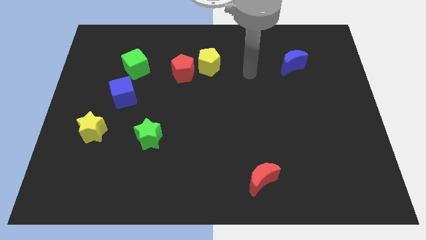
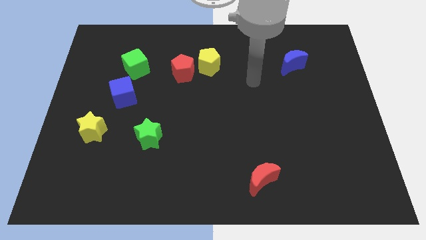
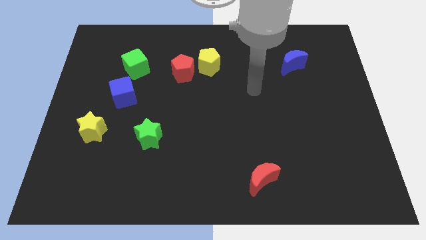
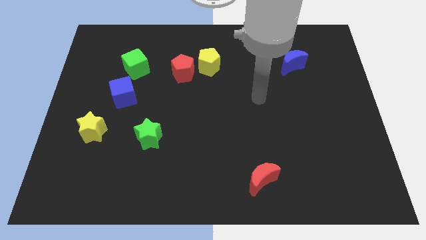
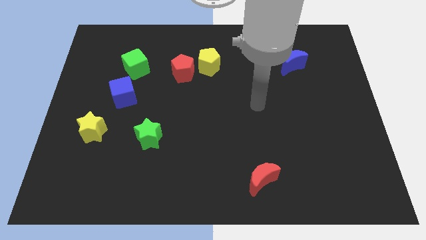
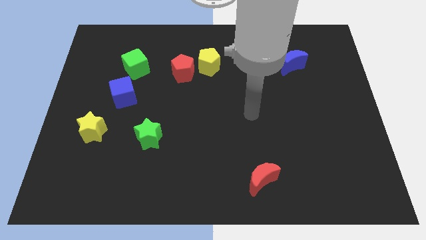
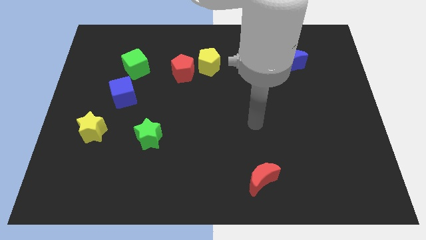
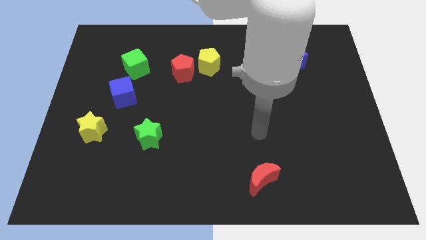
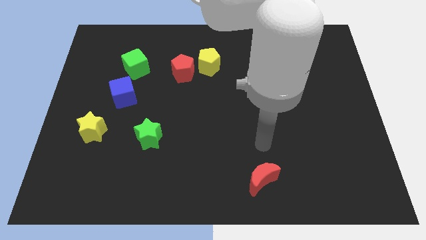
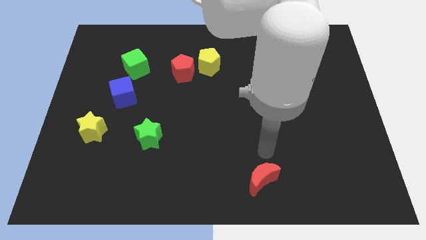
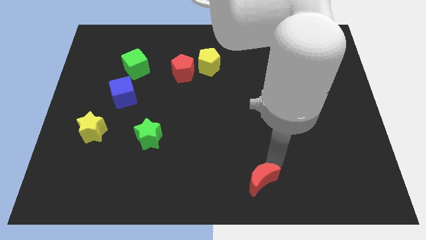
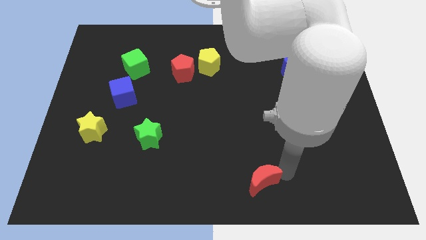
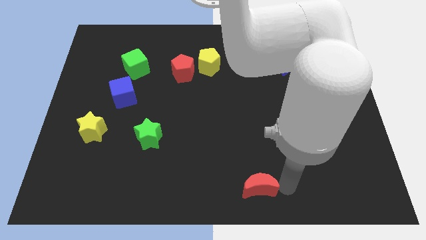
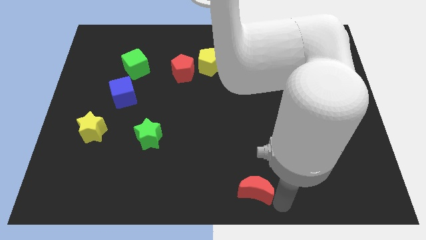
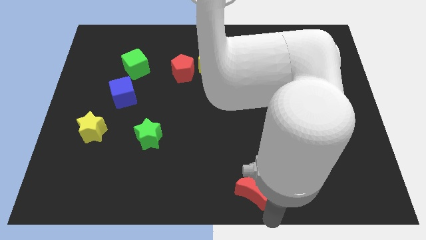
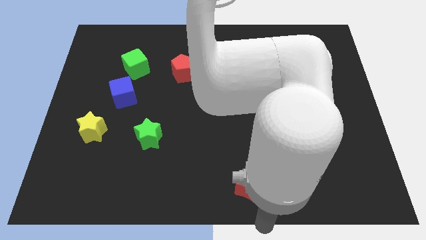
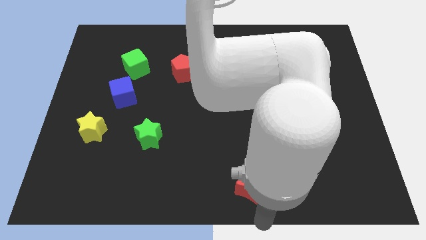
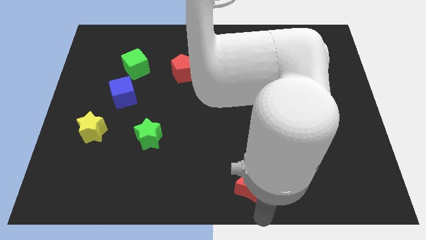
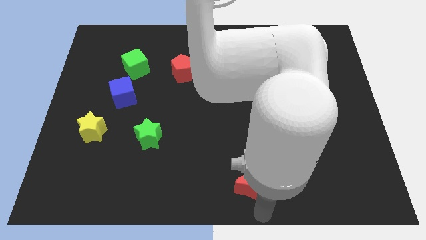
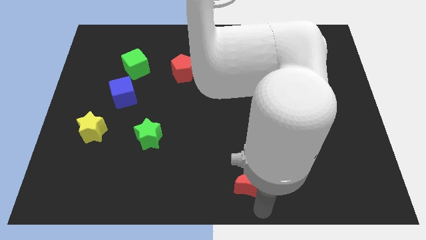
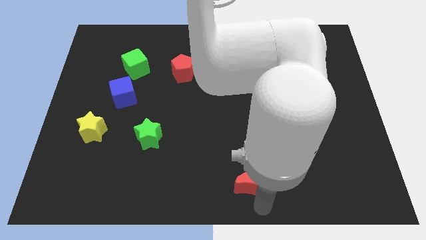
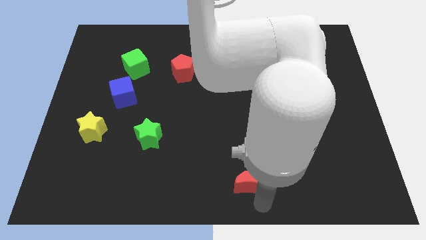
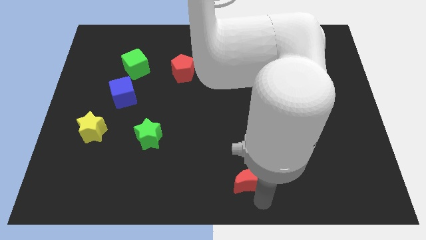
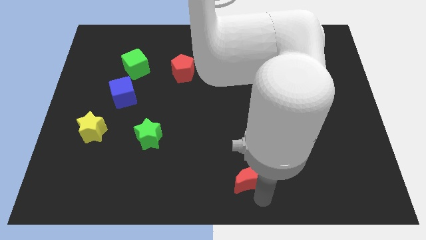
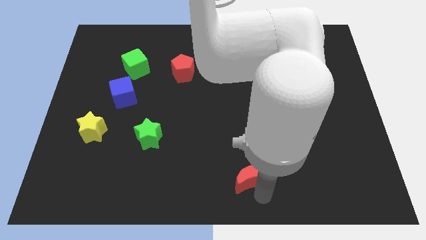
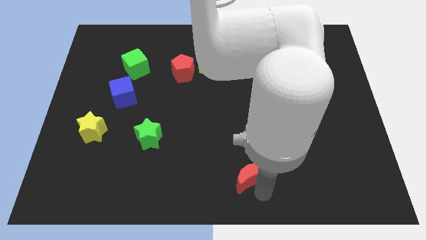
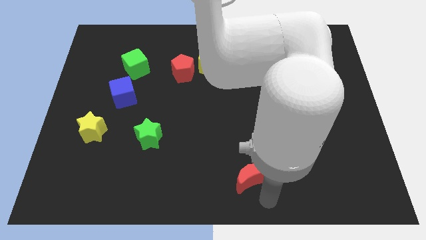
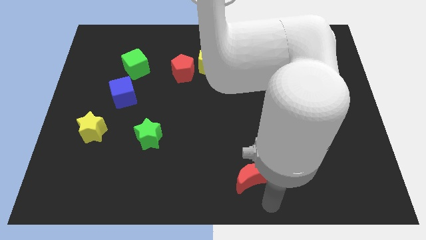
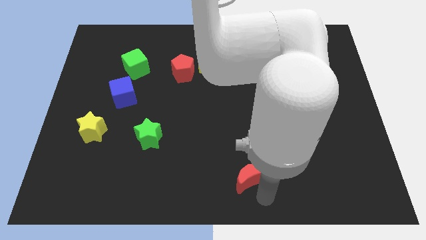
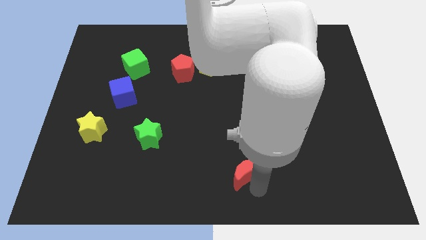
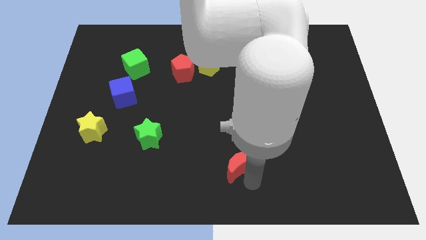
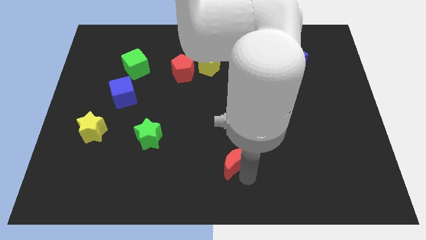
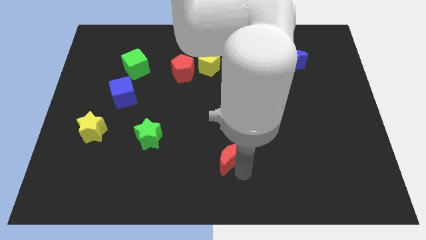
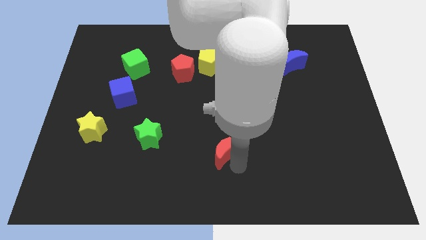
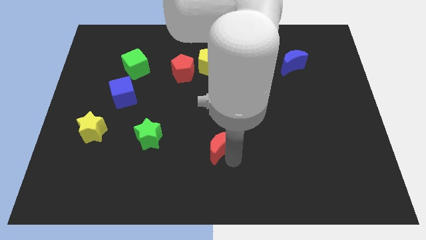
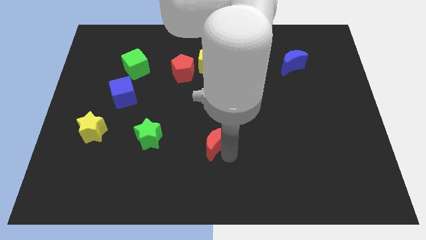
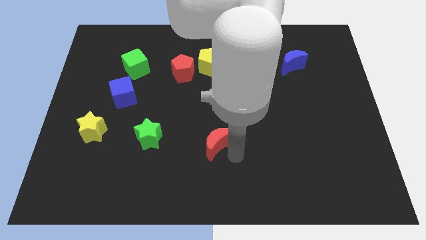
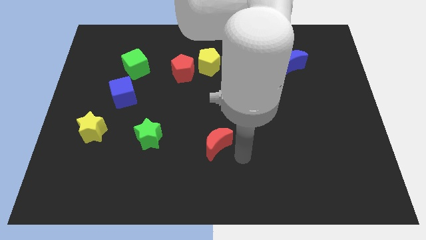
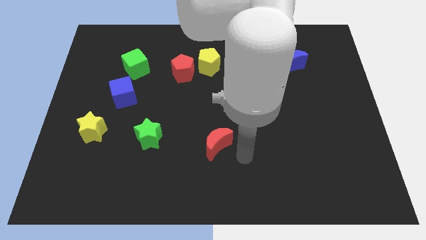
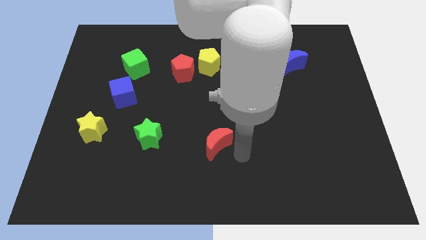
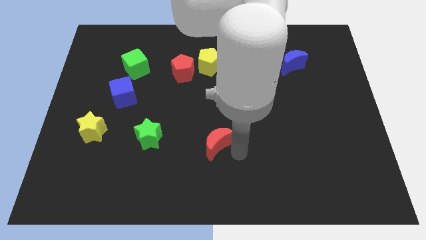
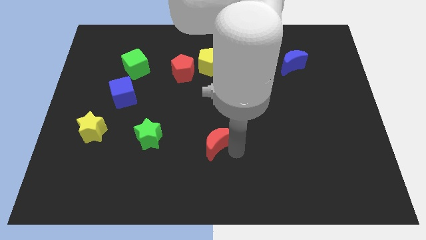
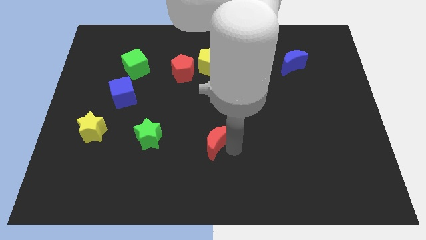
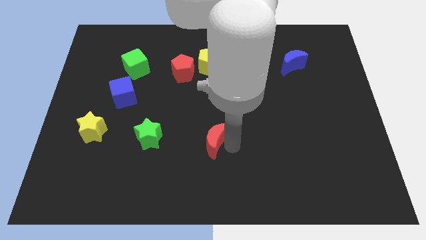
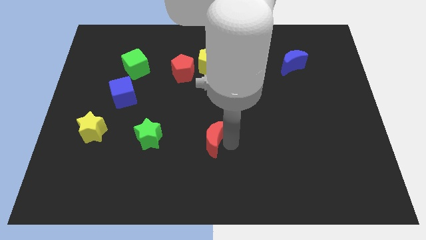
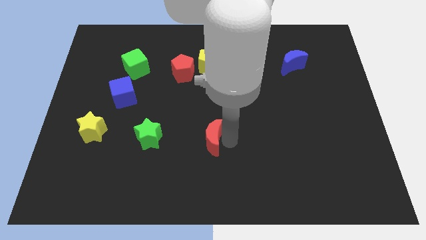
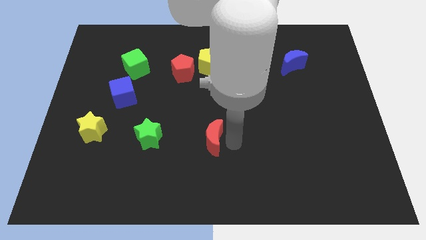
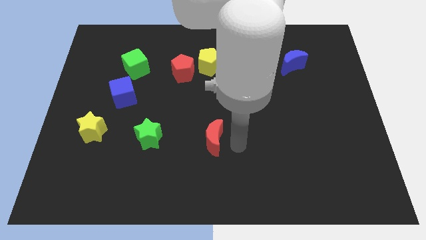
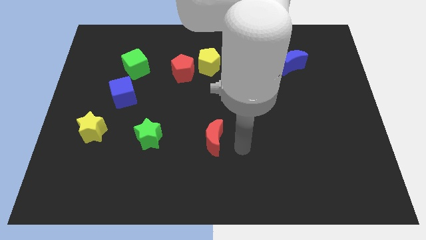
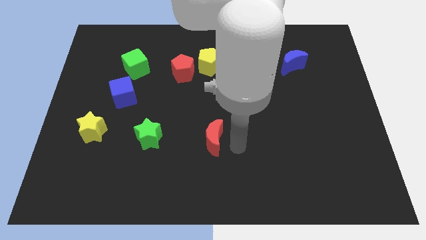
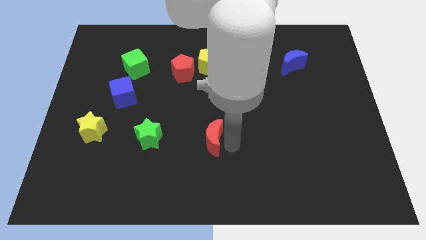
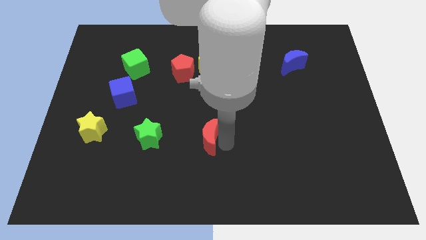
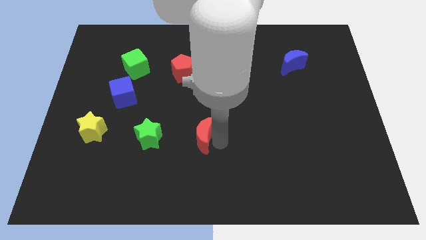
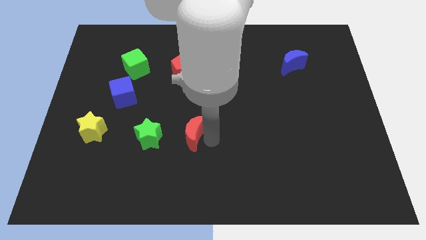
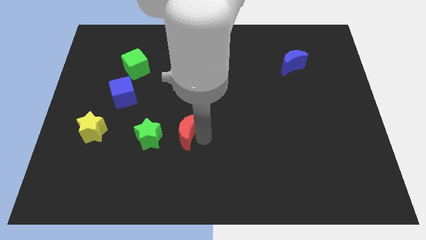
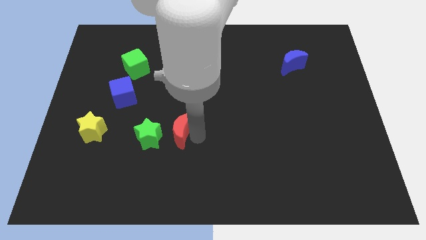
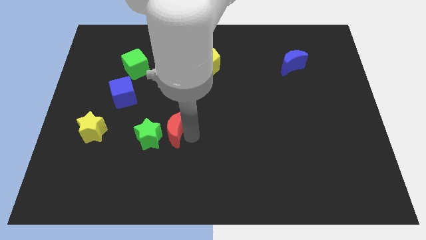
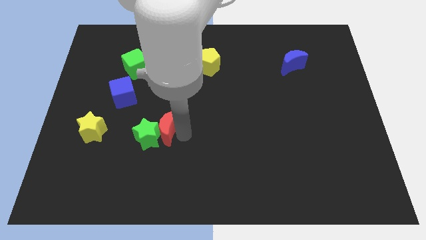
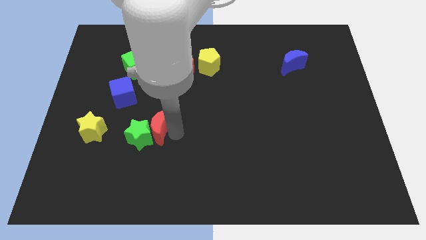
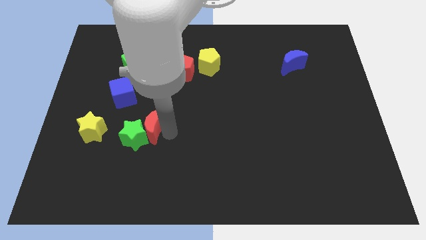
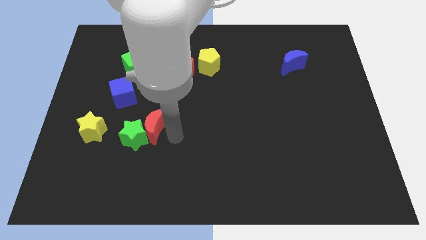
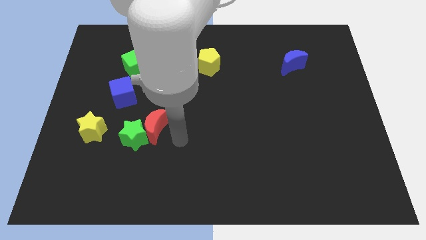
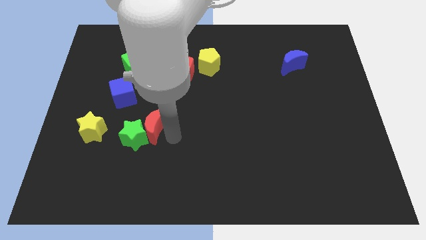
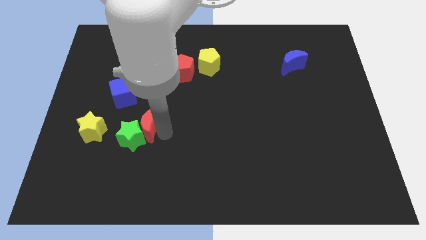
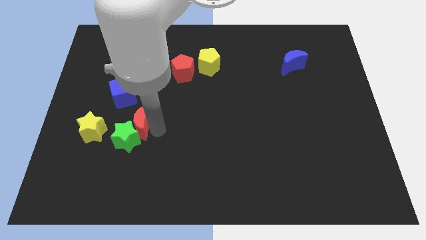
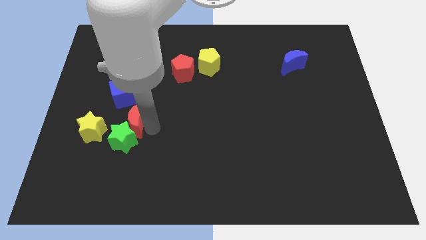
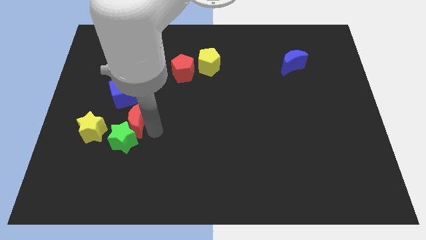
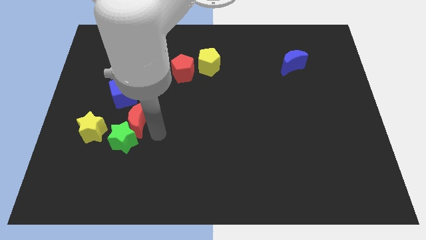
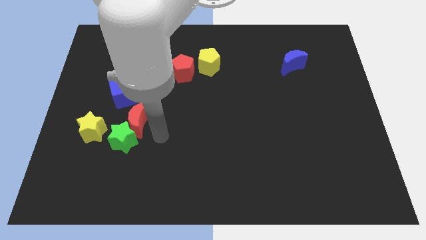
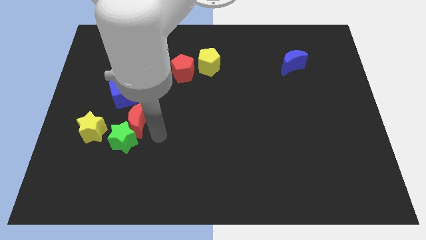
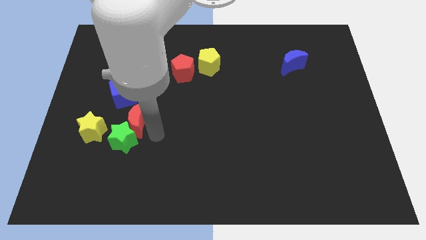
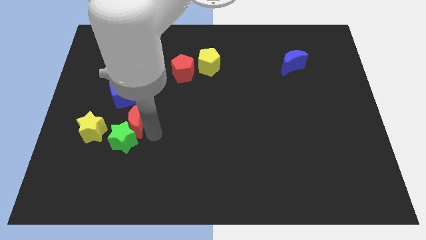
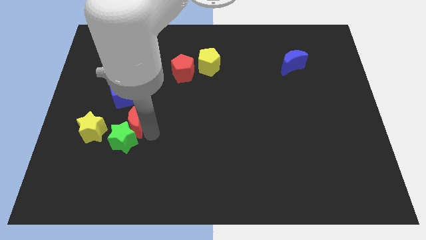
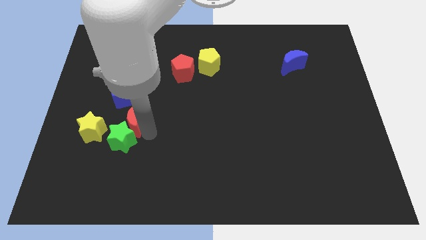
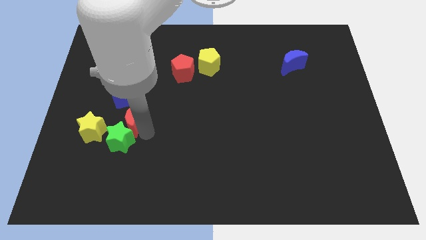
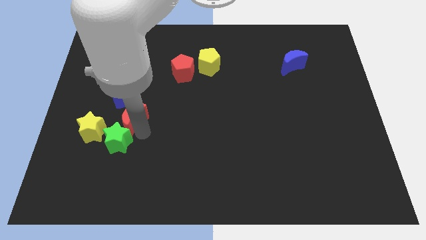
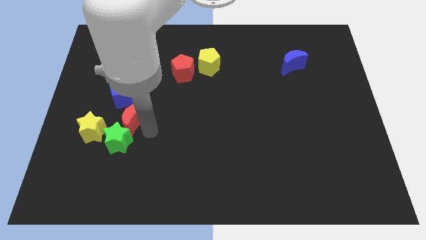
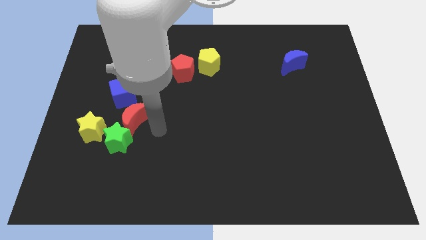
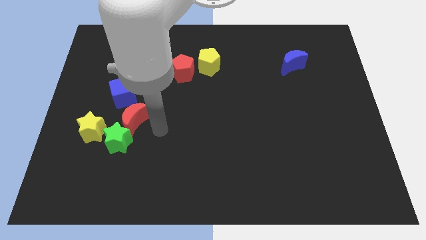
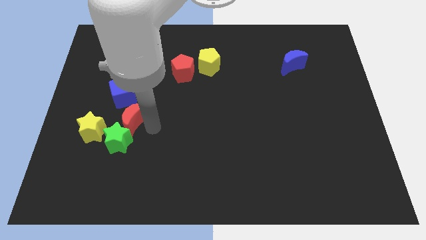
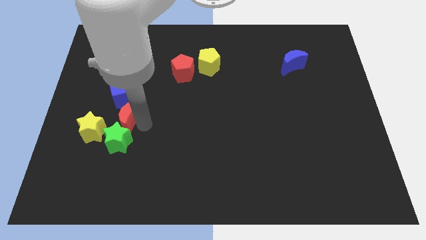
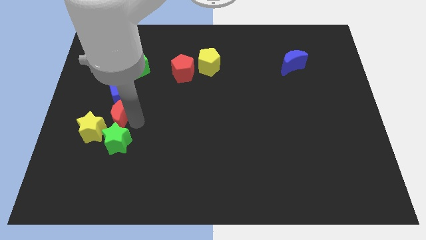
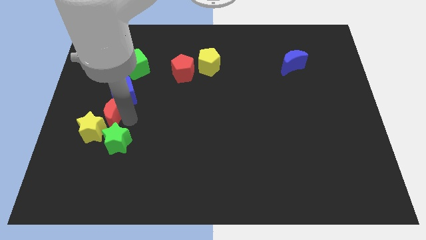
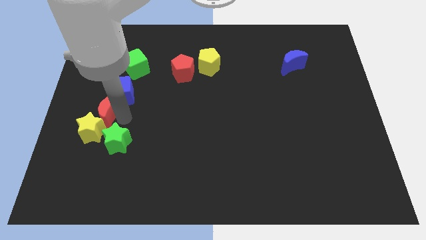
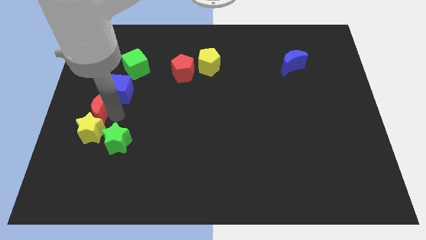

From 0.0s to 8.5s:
slide the red moon to the left side
